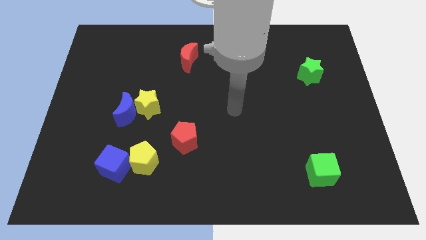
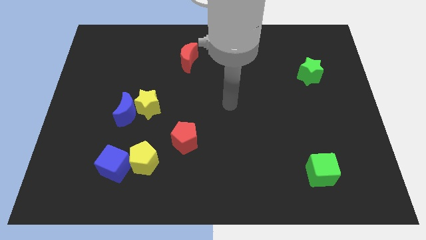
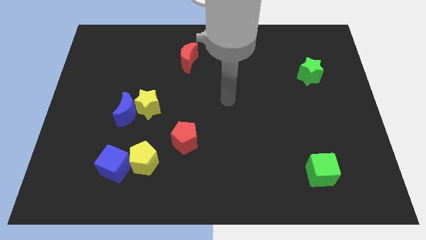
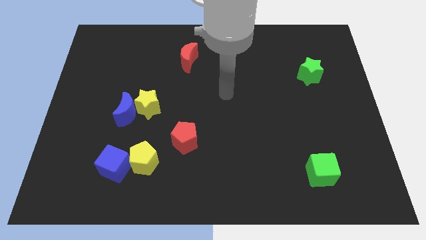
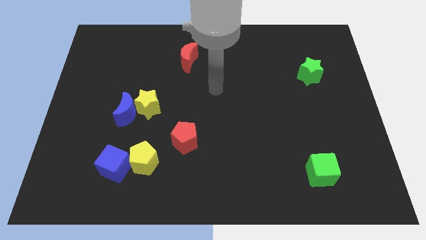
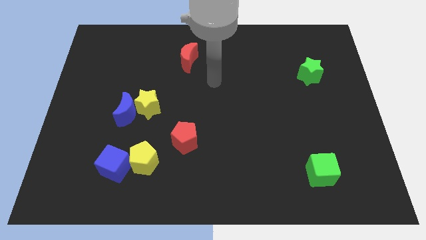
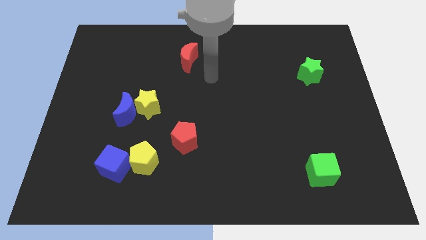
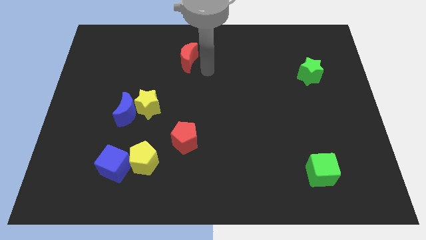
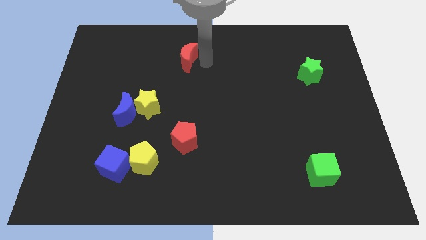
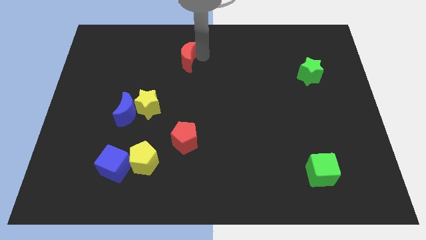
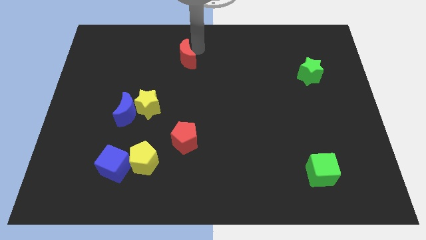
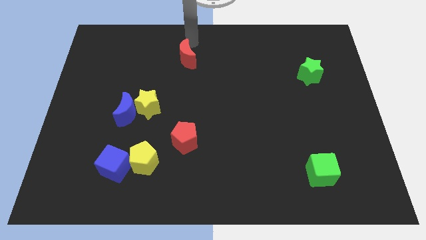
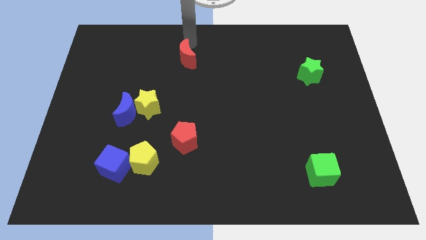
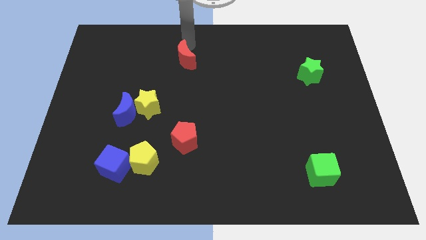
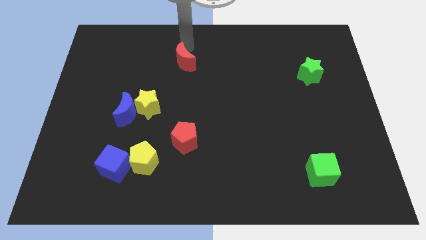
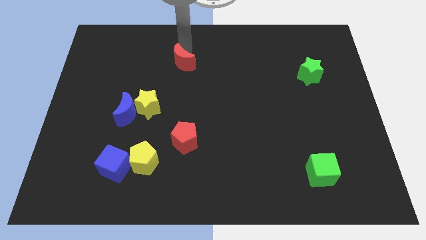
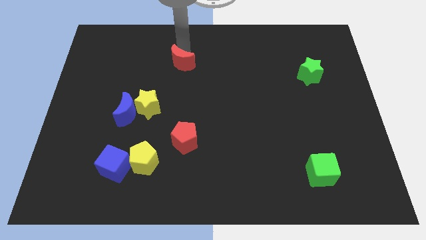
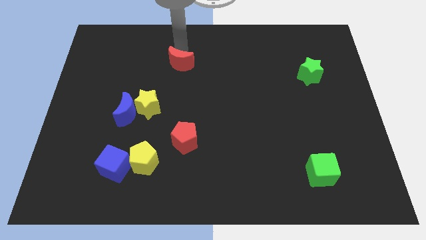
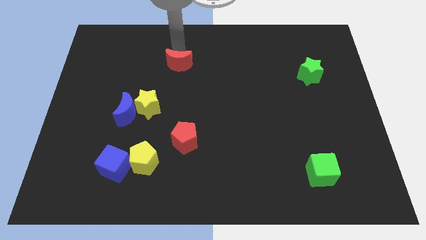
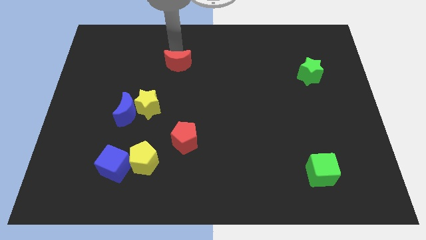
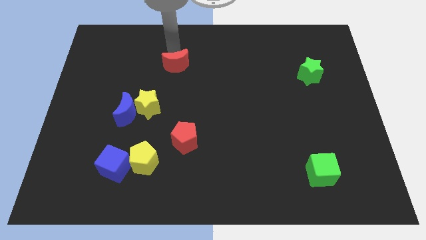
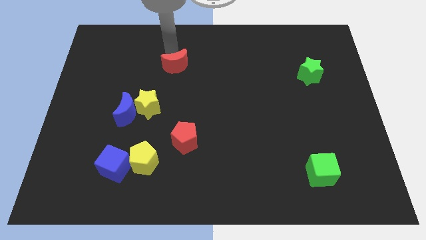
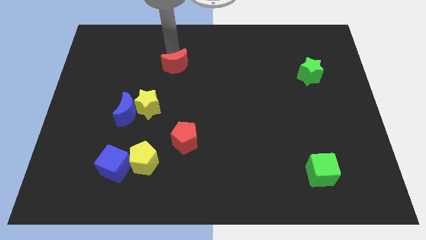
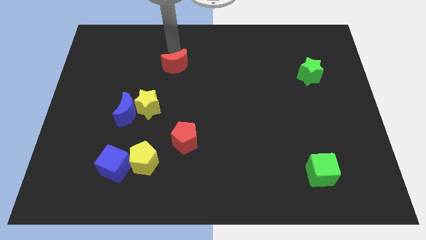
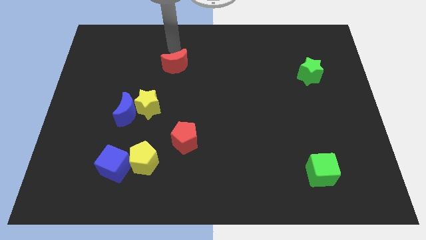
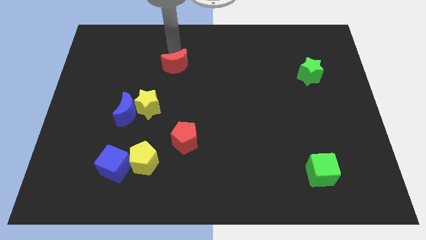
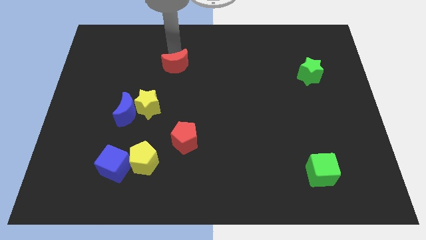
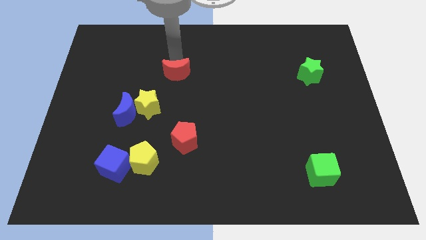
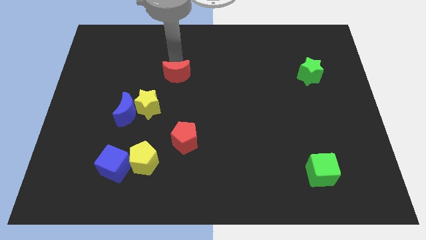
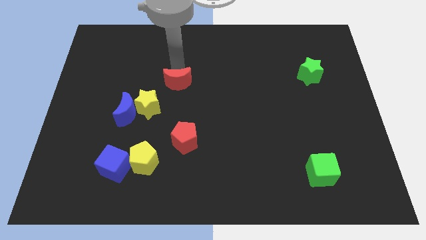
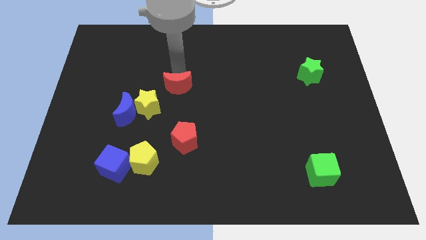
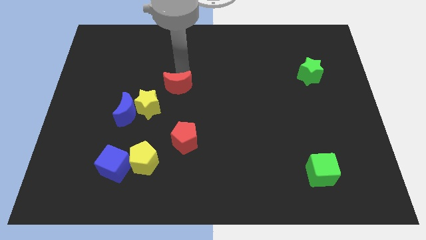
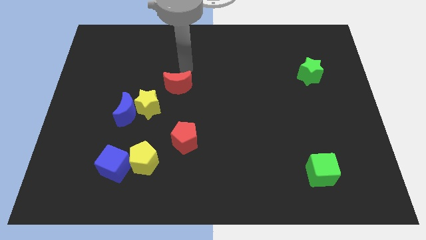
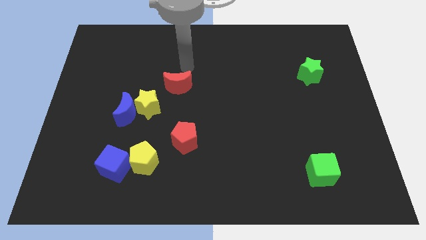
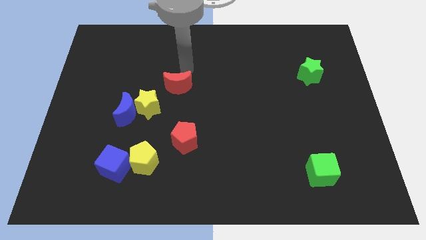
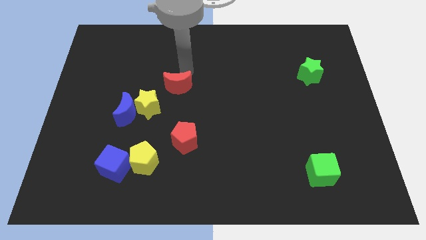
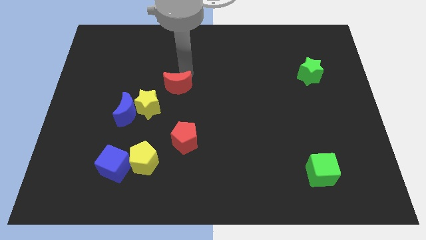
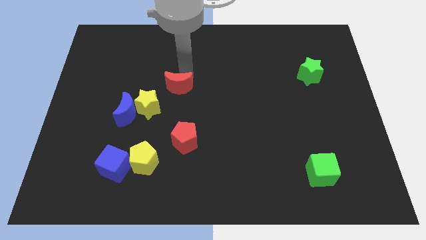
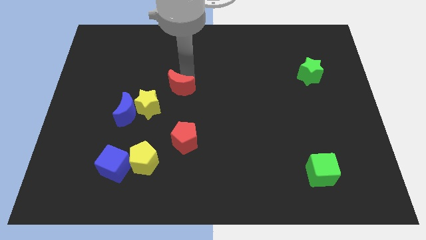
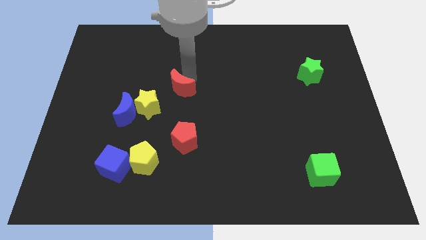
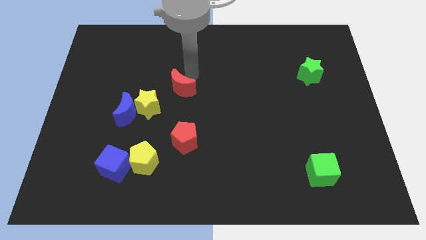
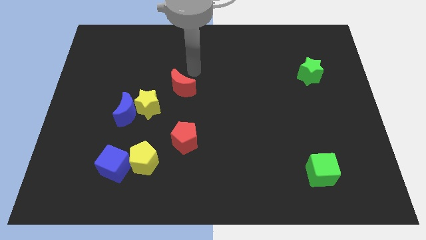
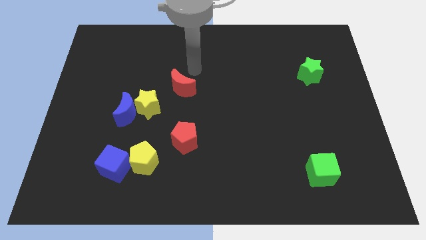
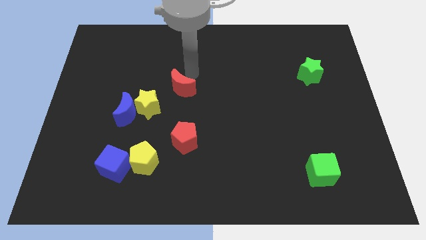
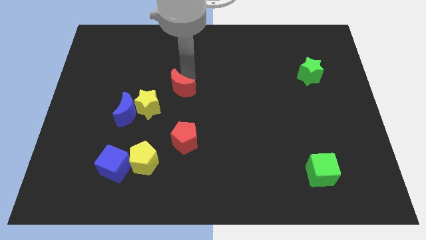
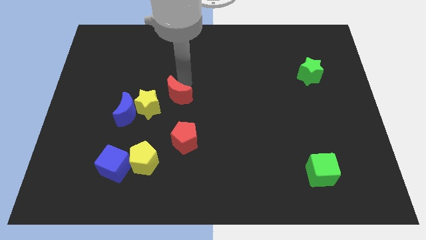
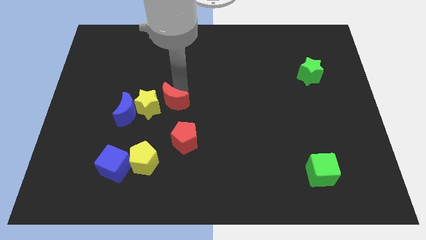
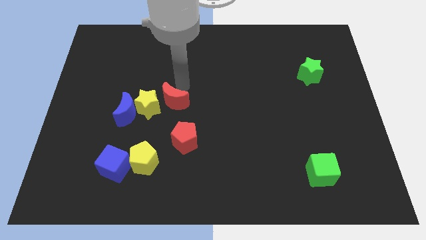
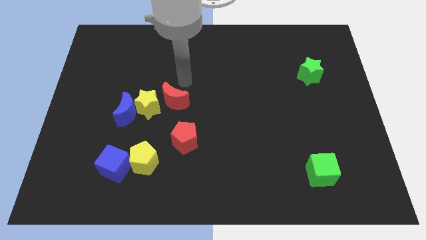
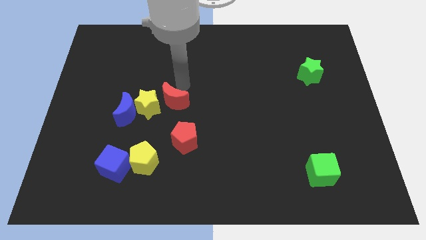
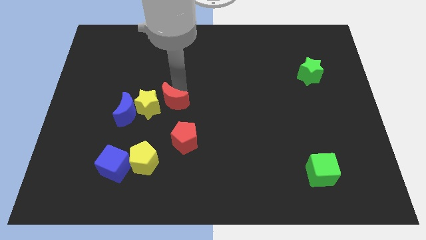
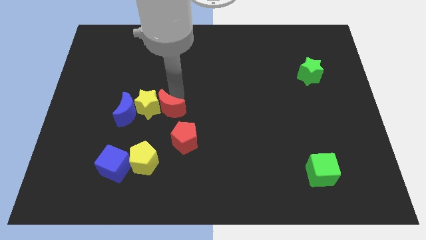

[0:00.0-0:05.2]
put the red moon to the top left side of the red pentagon

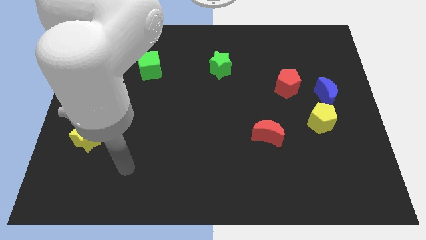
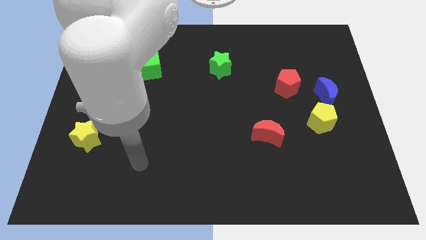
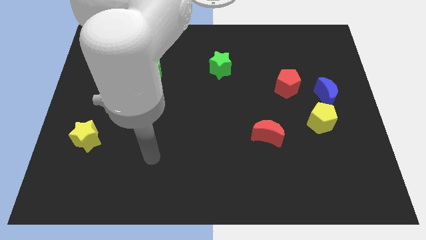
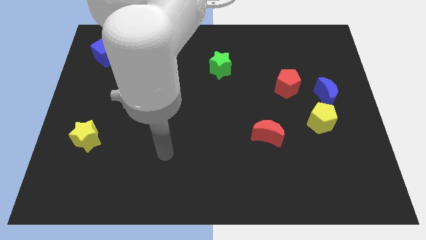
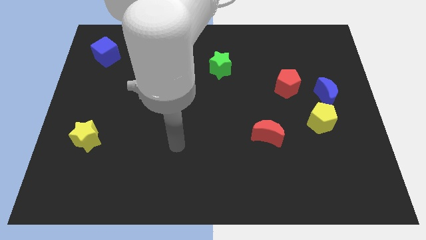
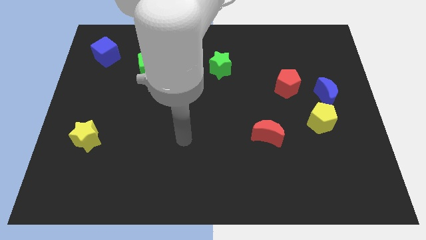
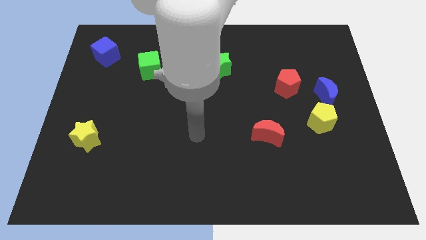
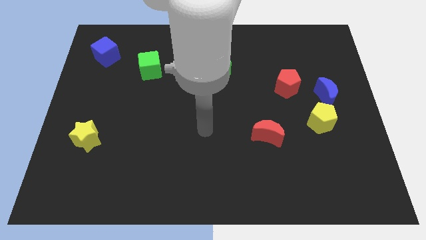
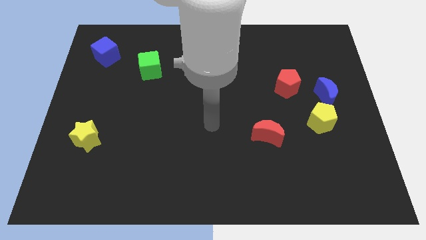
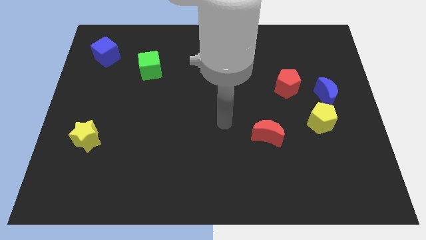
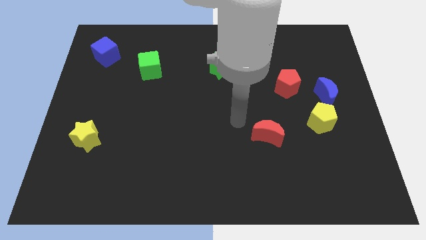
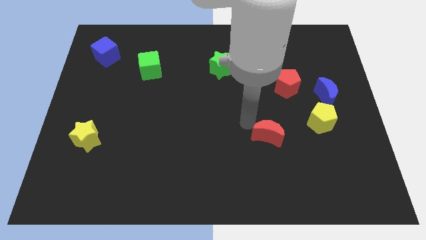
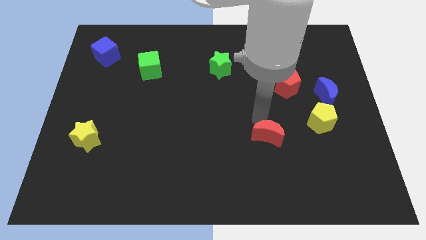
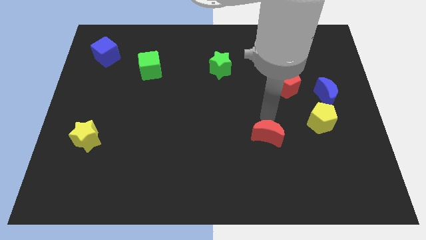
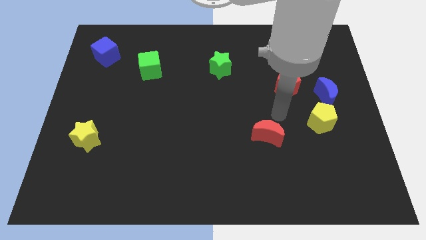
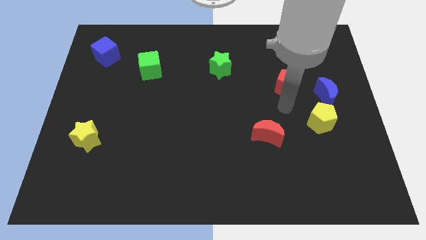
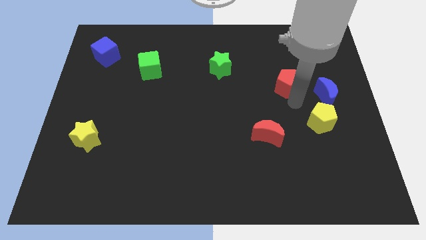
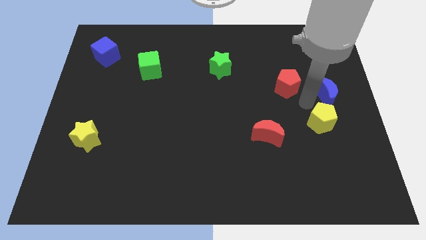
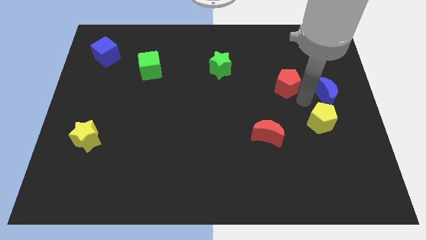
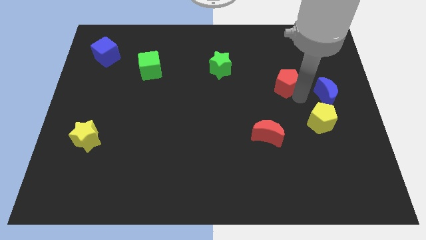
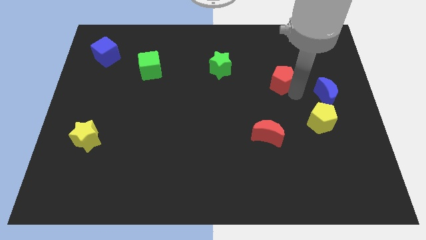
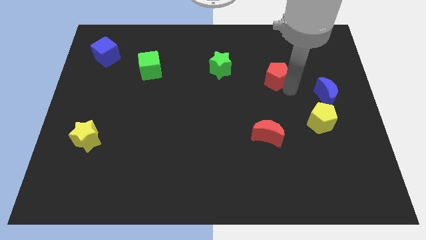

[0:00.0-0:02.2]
move the red pentagon just right of the green star
